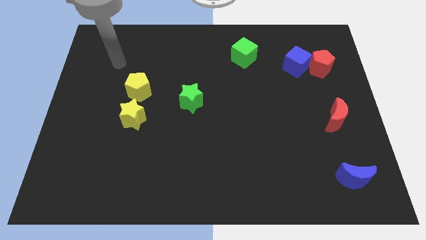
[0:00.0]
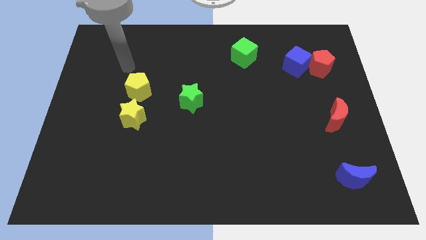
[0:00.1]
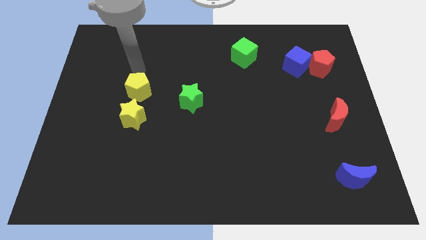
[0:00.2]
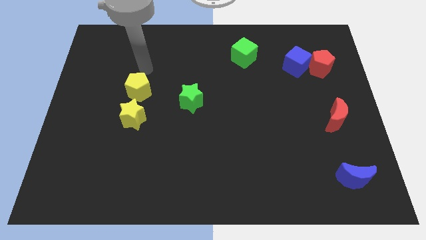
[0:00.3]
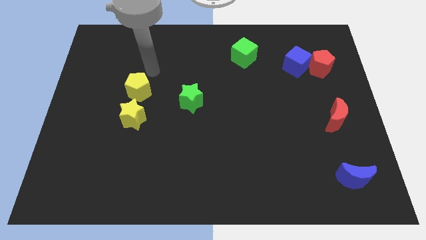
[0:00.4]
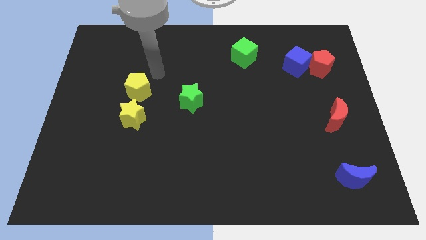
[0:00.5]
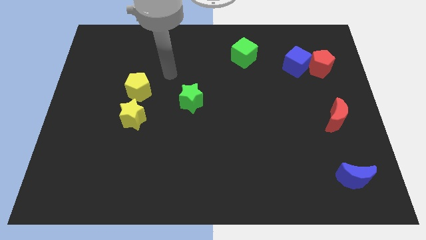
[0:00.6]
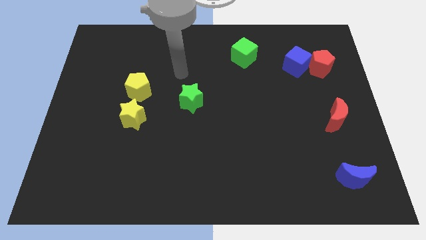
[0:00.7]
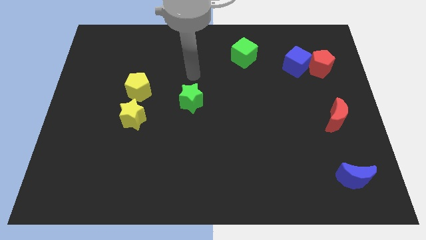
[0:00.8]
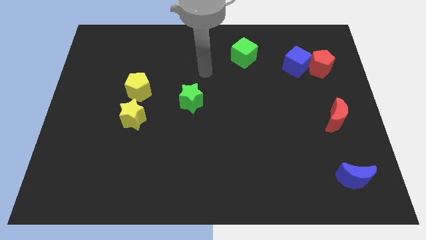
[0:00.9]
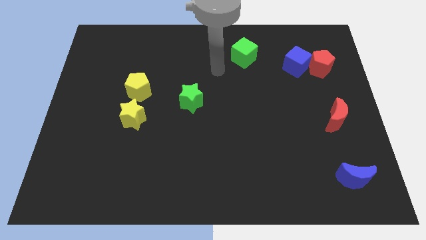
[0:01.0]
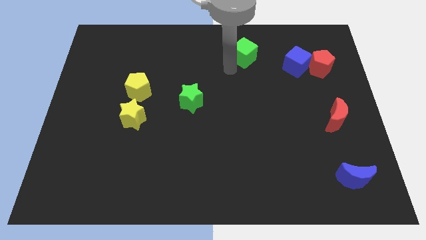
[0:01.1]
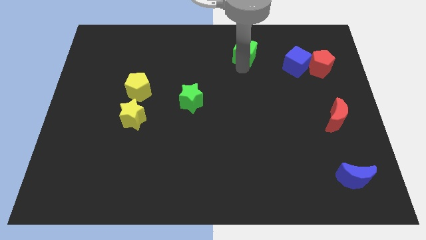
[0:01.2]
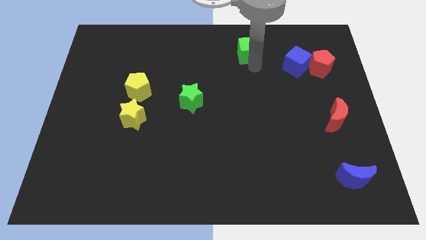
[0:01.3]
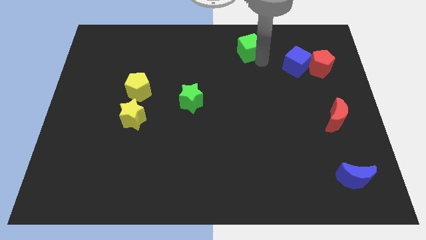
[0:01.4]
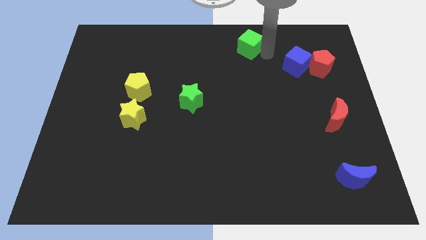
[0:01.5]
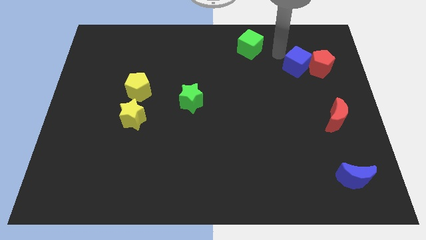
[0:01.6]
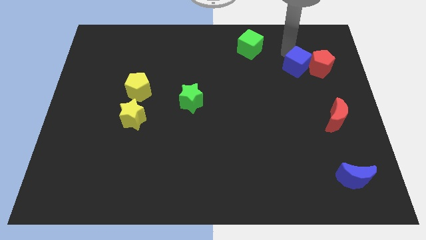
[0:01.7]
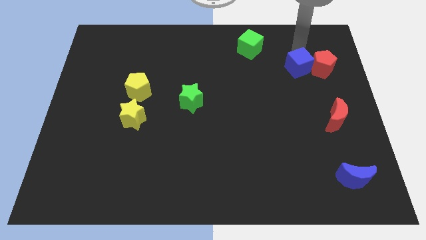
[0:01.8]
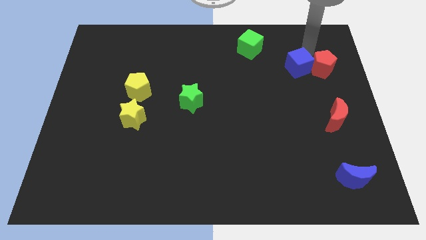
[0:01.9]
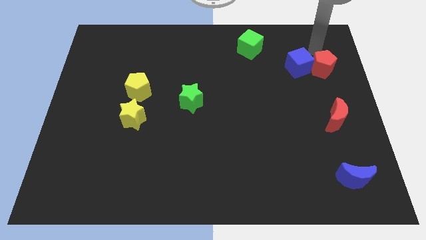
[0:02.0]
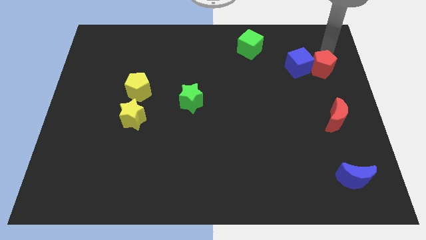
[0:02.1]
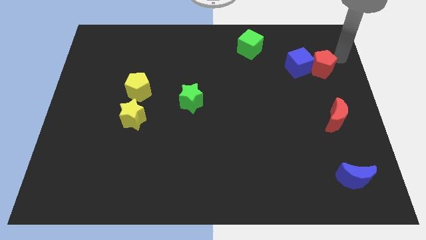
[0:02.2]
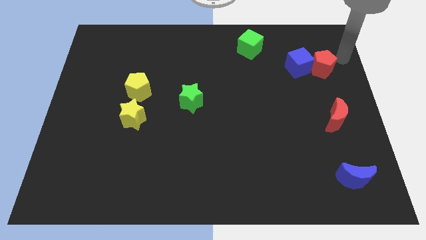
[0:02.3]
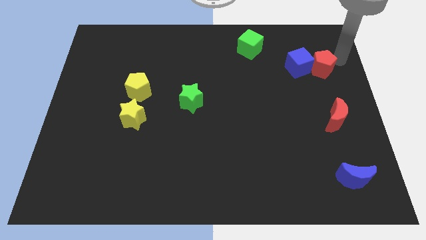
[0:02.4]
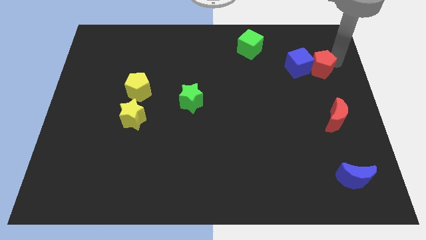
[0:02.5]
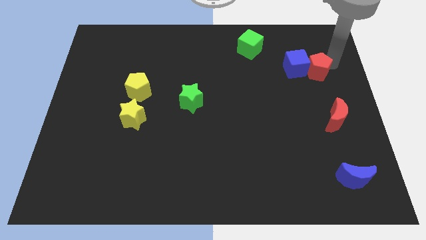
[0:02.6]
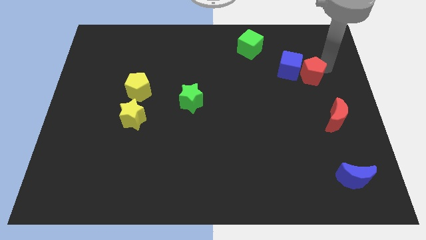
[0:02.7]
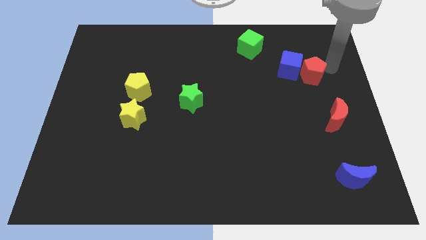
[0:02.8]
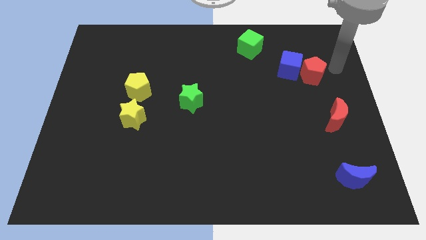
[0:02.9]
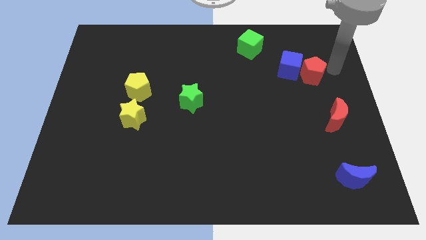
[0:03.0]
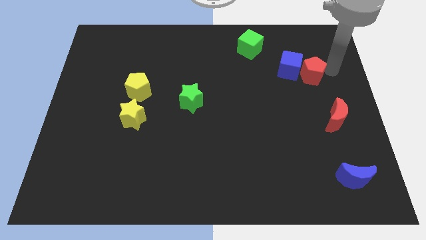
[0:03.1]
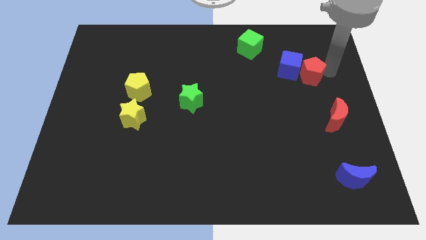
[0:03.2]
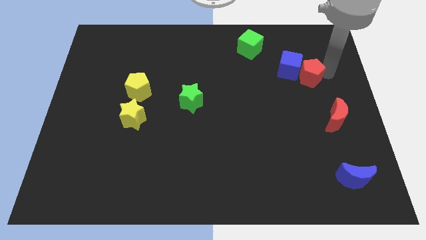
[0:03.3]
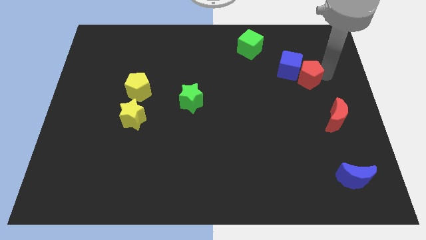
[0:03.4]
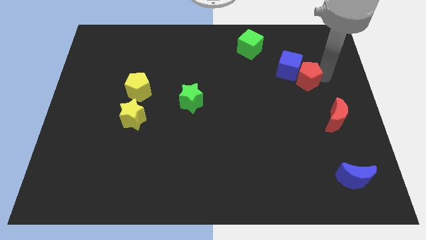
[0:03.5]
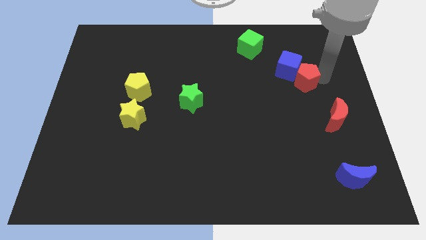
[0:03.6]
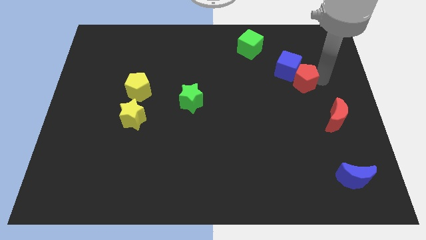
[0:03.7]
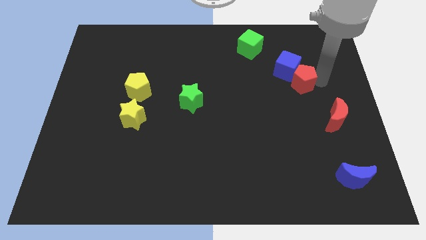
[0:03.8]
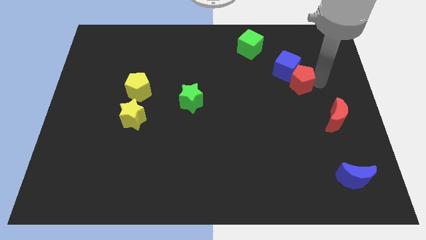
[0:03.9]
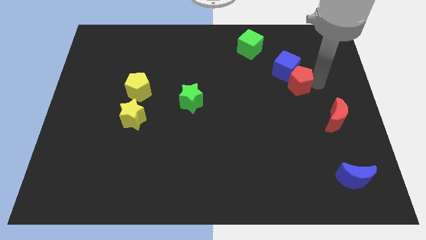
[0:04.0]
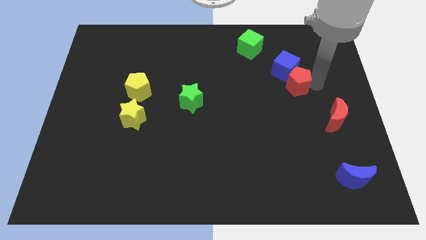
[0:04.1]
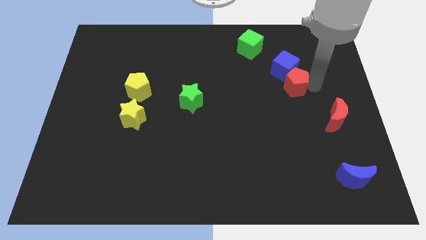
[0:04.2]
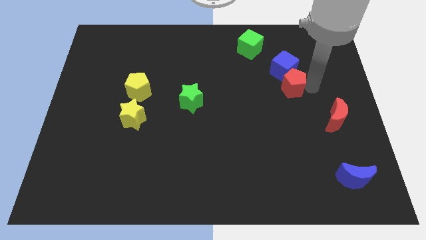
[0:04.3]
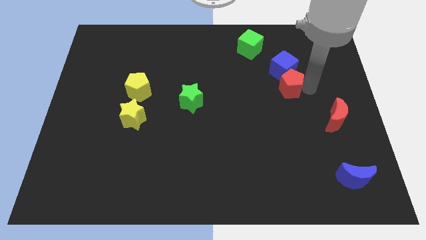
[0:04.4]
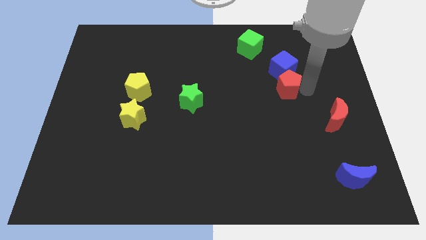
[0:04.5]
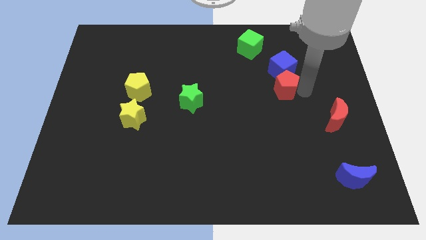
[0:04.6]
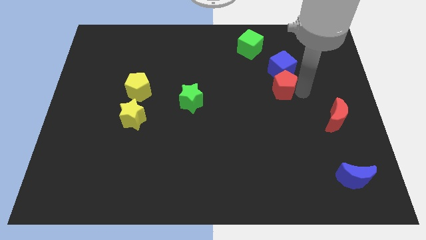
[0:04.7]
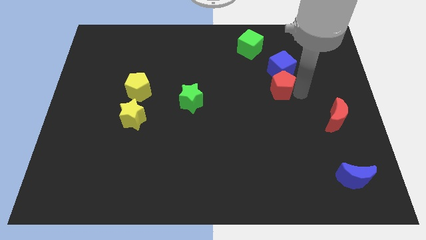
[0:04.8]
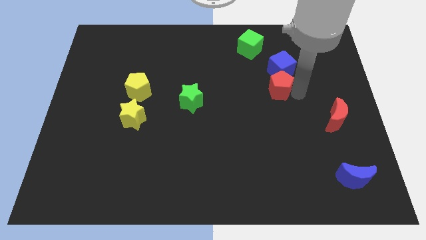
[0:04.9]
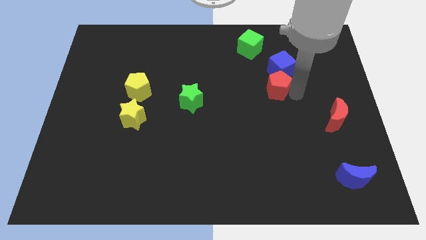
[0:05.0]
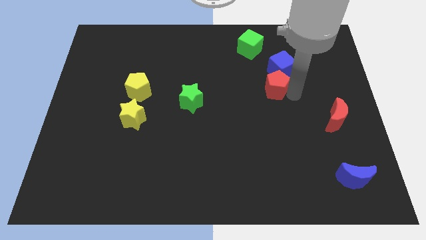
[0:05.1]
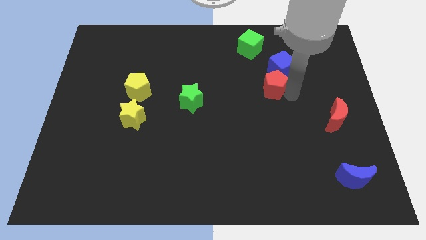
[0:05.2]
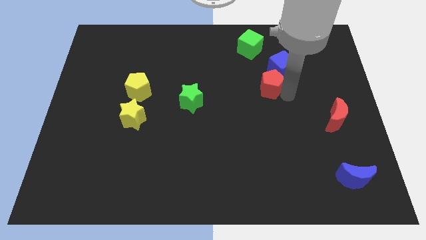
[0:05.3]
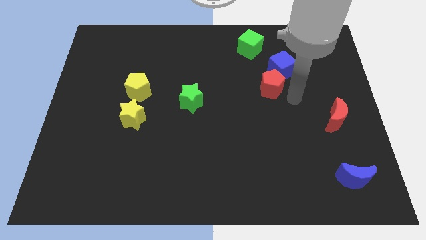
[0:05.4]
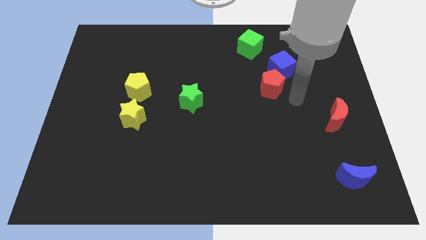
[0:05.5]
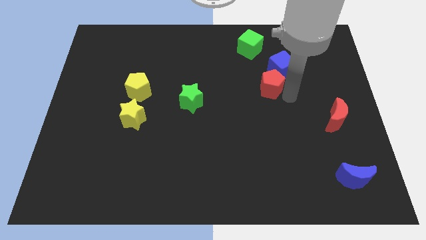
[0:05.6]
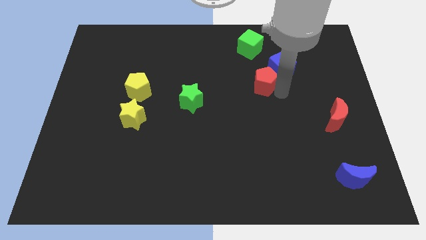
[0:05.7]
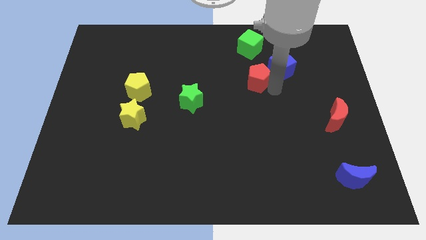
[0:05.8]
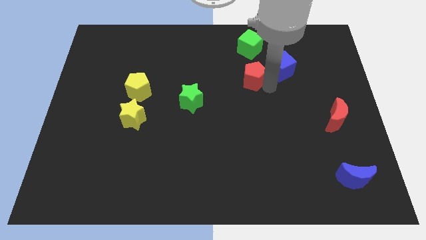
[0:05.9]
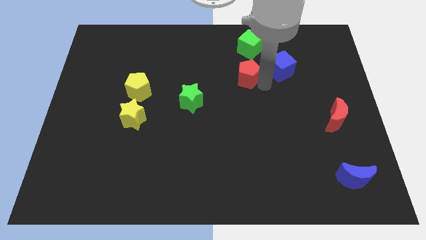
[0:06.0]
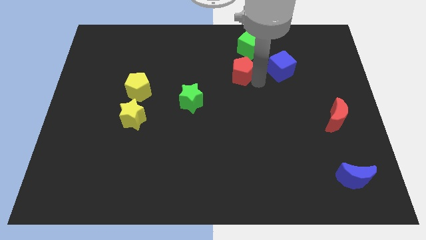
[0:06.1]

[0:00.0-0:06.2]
slide the red pentagon left

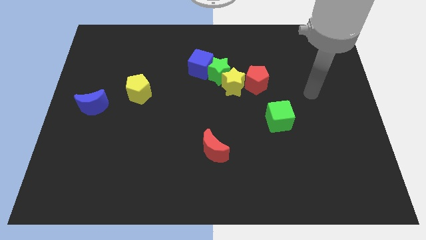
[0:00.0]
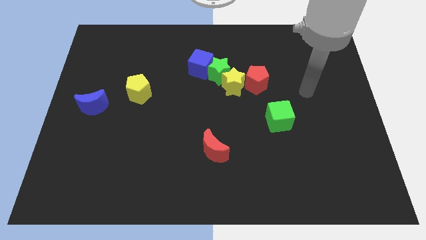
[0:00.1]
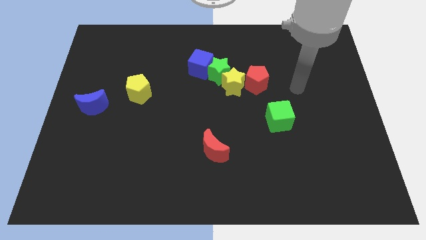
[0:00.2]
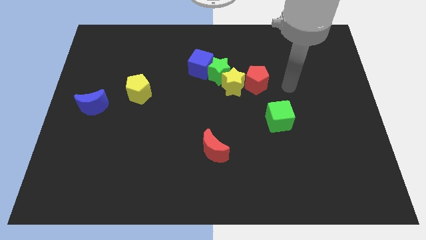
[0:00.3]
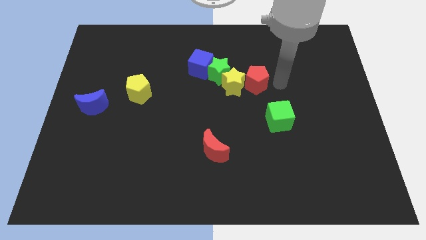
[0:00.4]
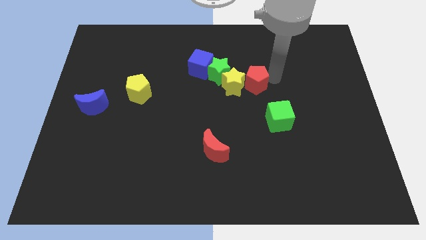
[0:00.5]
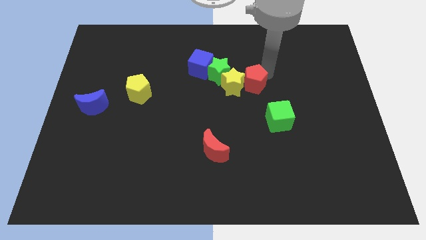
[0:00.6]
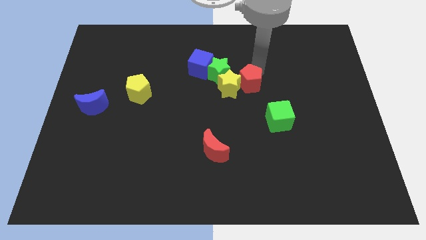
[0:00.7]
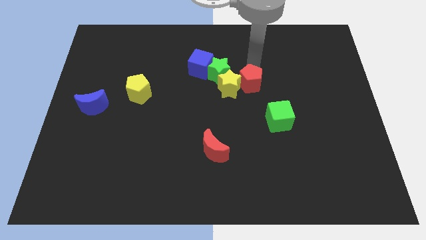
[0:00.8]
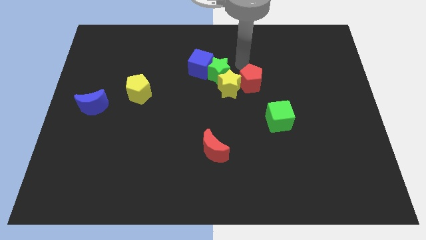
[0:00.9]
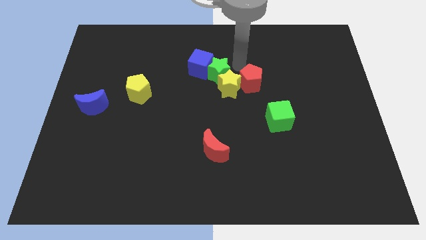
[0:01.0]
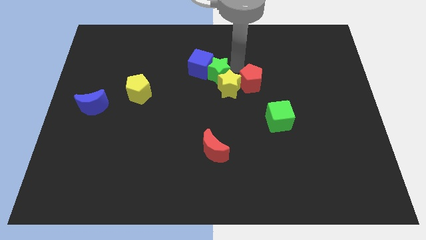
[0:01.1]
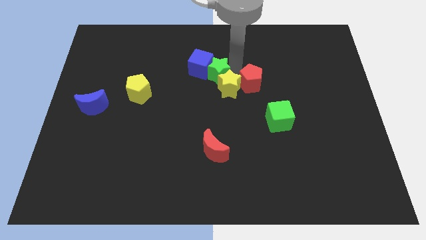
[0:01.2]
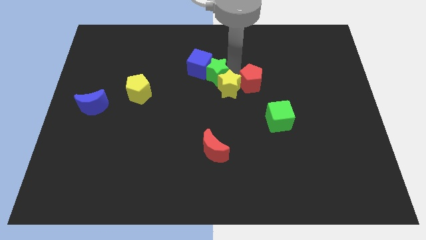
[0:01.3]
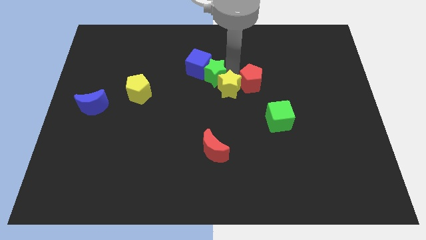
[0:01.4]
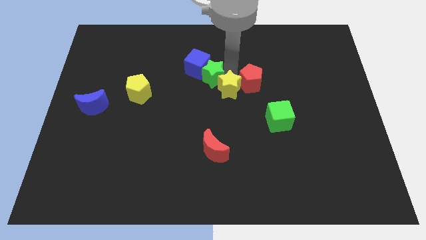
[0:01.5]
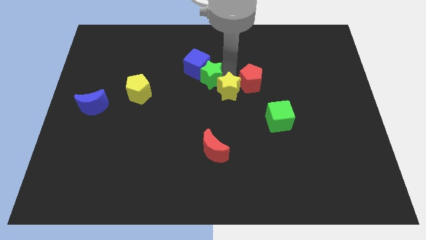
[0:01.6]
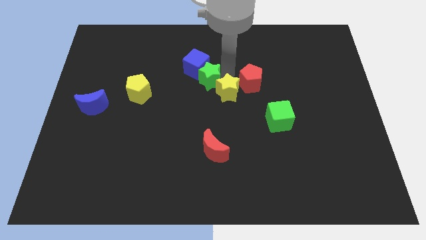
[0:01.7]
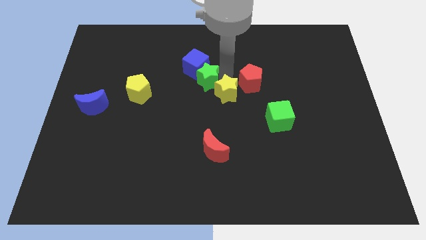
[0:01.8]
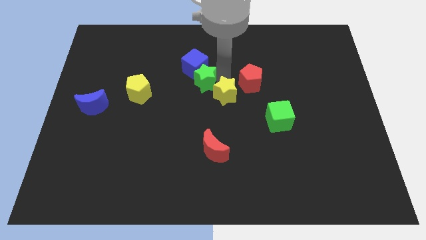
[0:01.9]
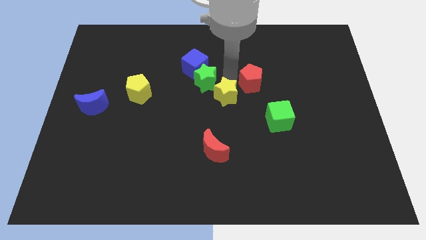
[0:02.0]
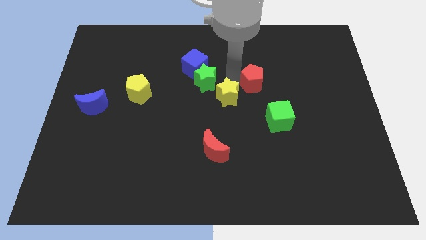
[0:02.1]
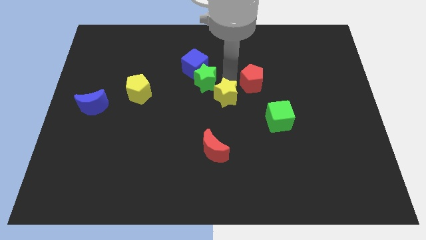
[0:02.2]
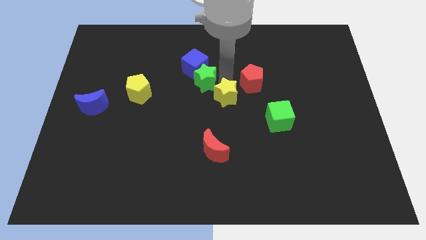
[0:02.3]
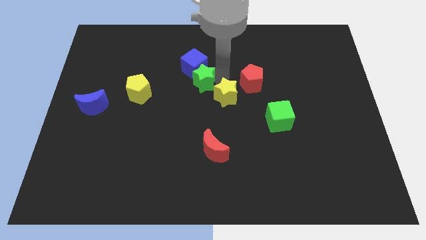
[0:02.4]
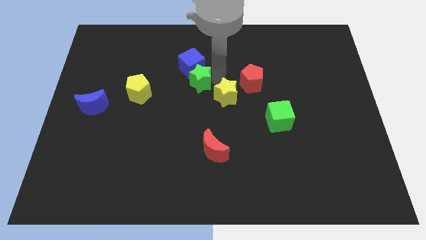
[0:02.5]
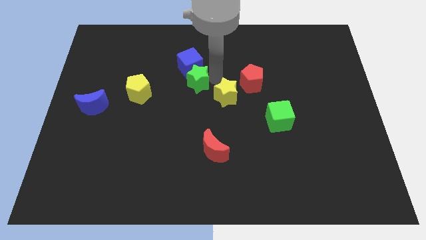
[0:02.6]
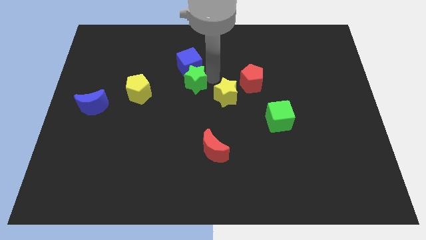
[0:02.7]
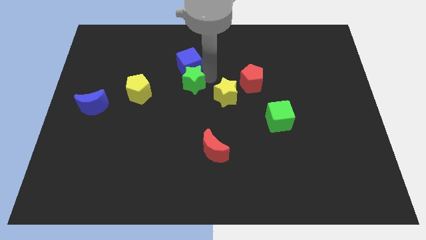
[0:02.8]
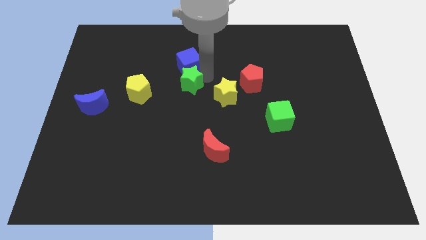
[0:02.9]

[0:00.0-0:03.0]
slightly push the green star to the left
